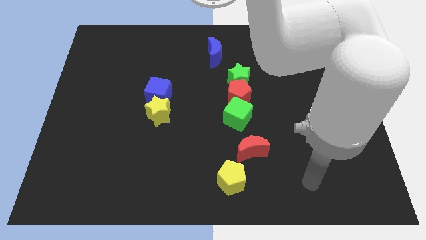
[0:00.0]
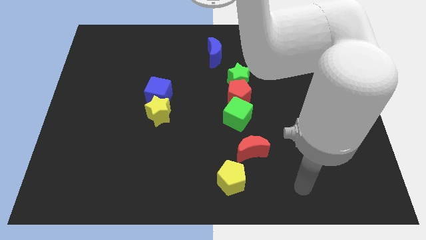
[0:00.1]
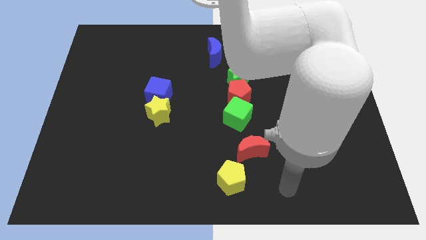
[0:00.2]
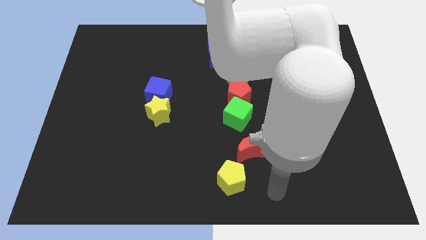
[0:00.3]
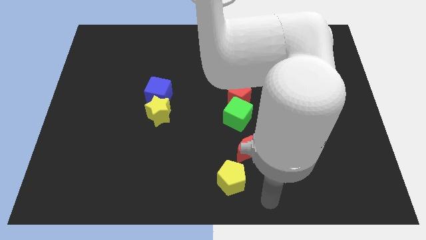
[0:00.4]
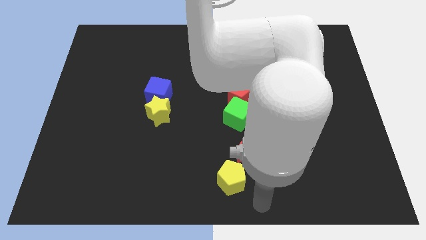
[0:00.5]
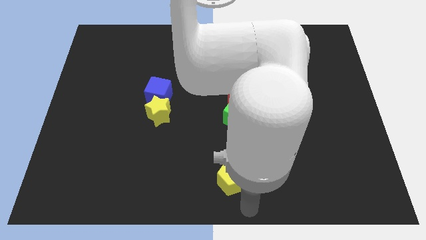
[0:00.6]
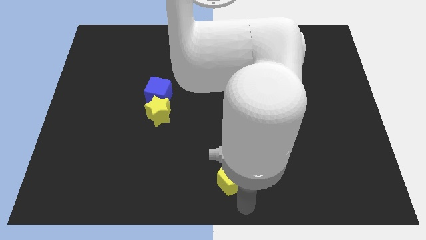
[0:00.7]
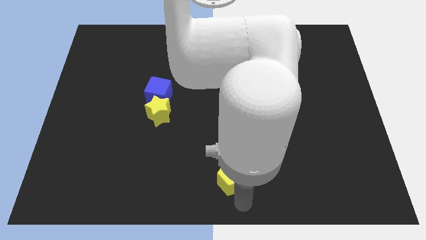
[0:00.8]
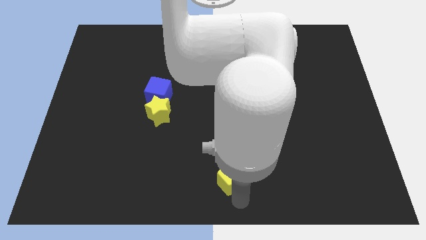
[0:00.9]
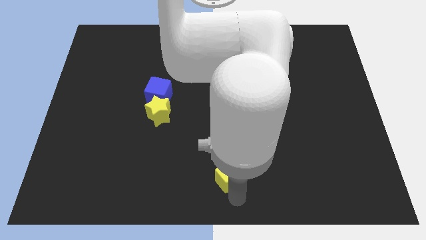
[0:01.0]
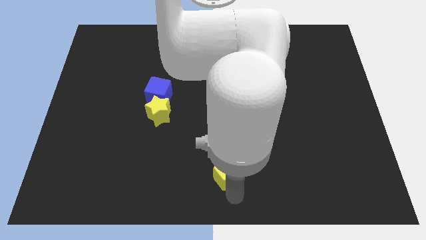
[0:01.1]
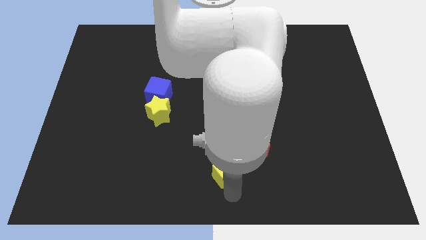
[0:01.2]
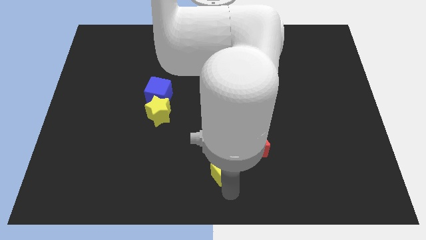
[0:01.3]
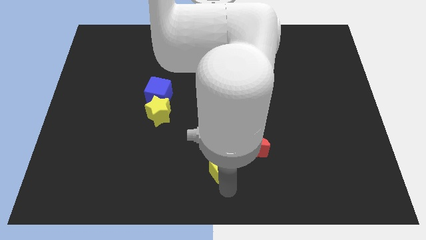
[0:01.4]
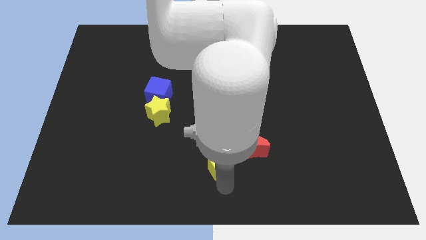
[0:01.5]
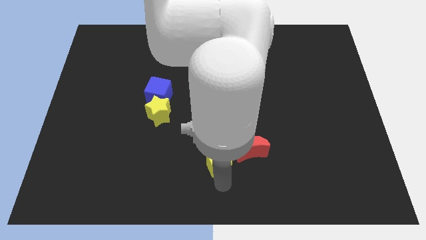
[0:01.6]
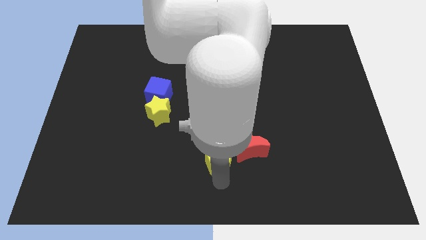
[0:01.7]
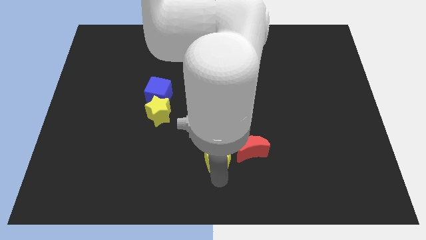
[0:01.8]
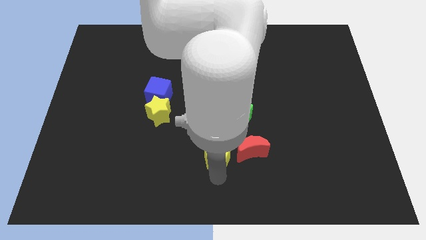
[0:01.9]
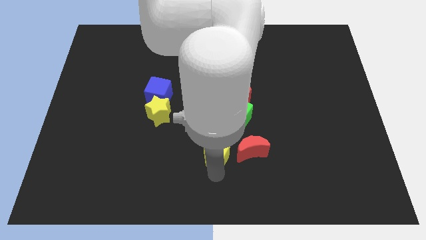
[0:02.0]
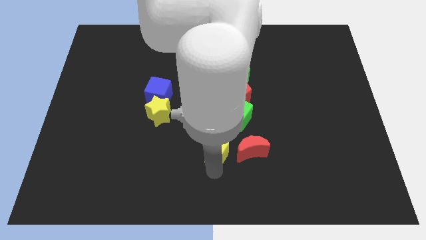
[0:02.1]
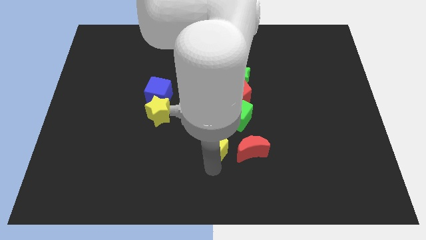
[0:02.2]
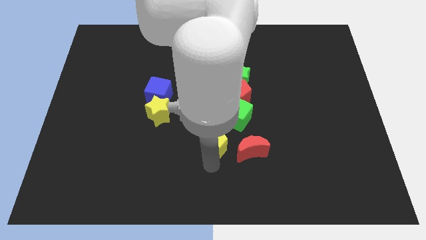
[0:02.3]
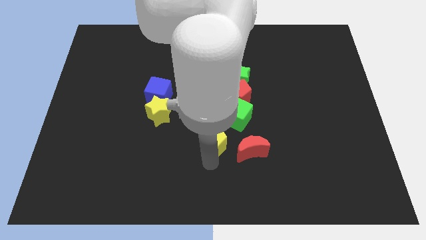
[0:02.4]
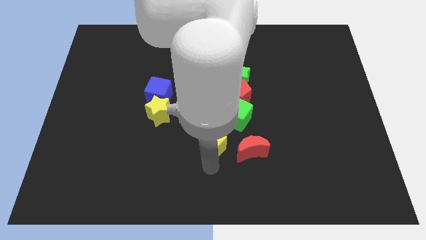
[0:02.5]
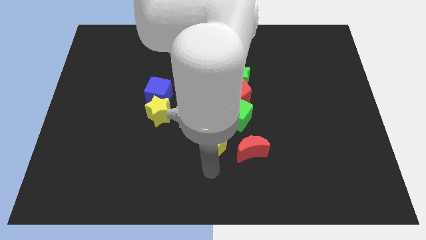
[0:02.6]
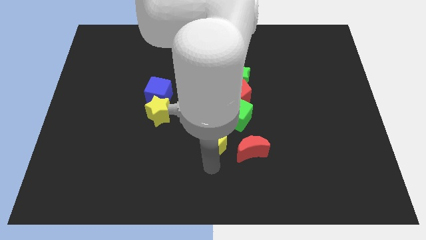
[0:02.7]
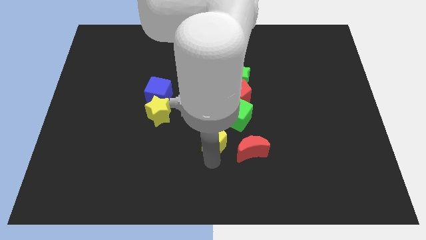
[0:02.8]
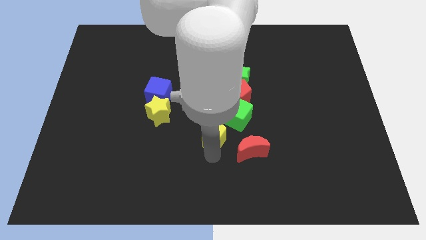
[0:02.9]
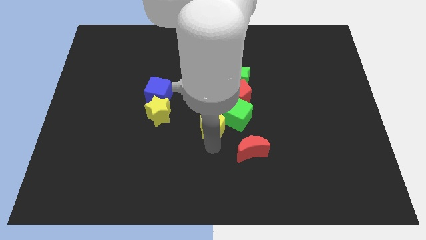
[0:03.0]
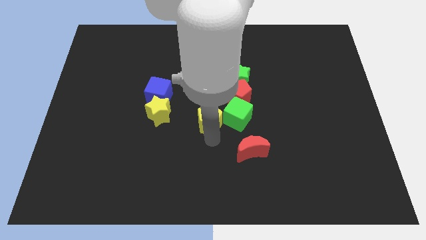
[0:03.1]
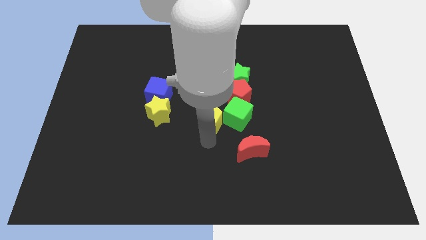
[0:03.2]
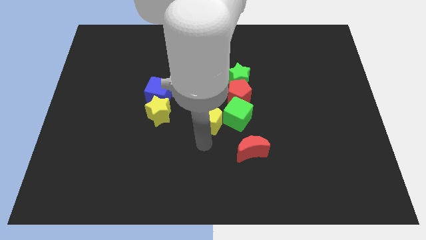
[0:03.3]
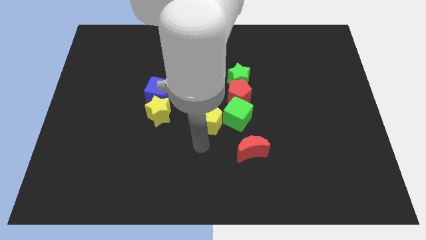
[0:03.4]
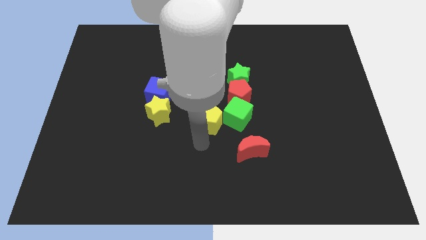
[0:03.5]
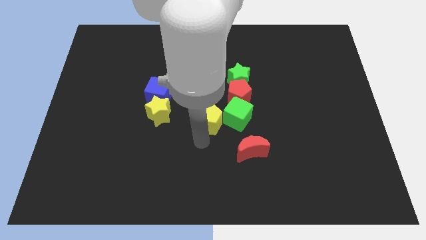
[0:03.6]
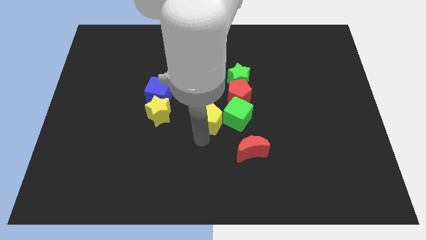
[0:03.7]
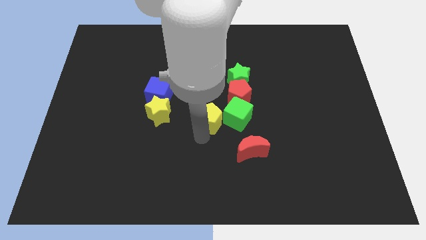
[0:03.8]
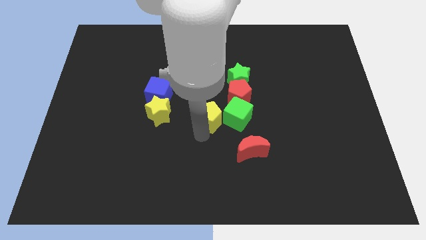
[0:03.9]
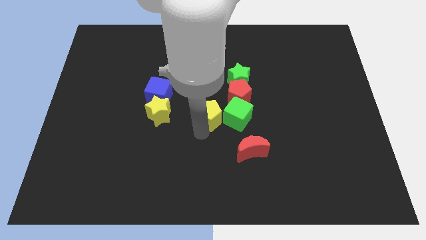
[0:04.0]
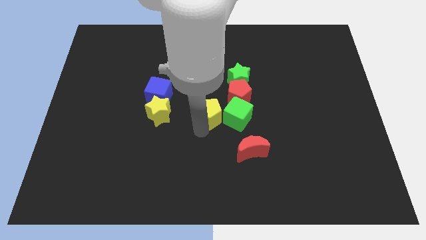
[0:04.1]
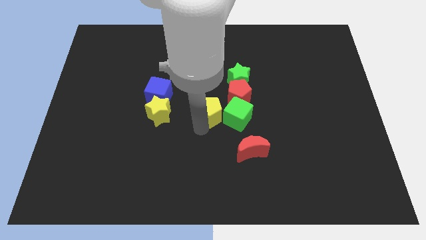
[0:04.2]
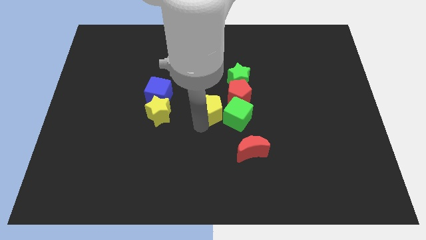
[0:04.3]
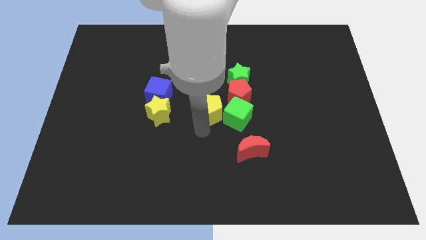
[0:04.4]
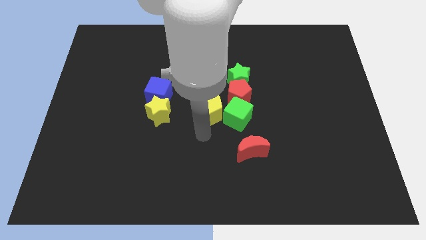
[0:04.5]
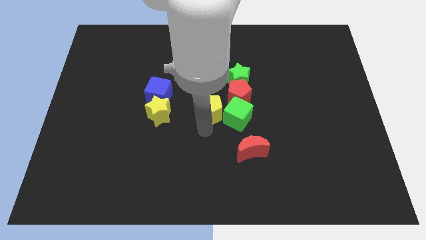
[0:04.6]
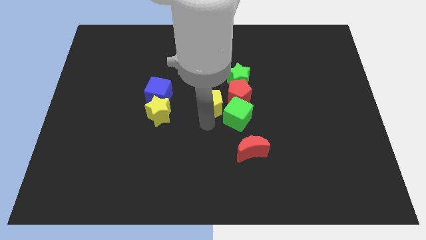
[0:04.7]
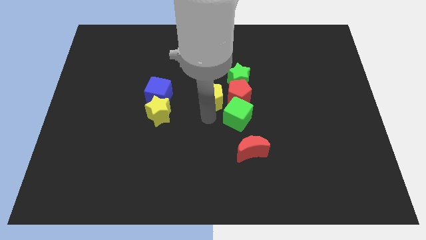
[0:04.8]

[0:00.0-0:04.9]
push the yellow pentagon up

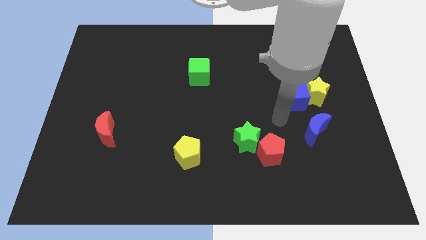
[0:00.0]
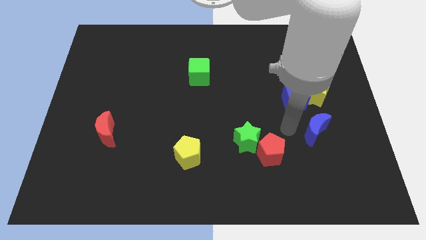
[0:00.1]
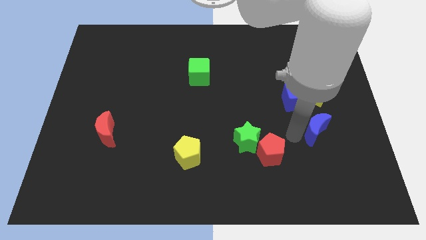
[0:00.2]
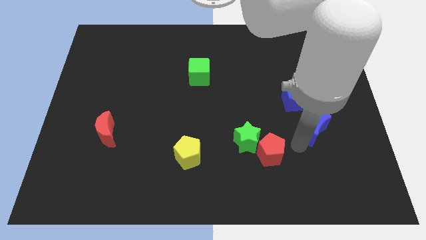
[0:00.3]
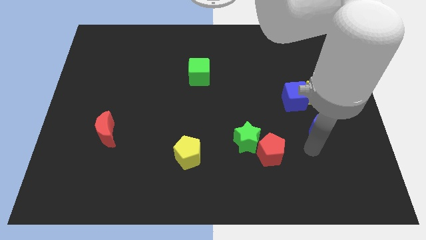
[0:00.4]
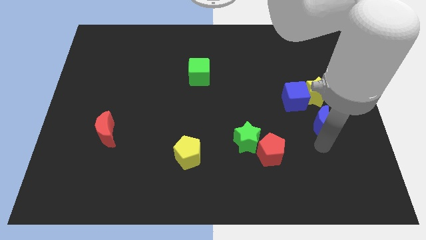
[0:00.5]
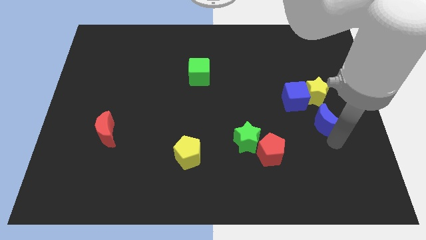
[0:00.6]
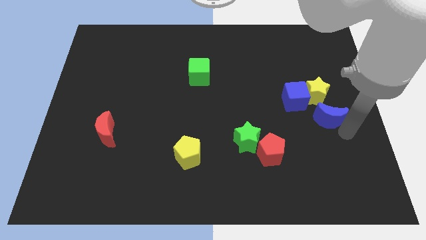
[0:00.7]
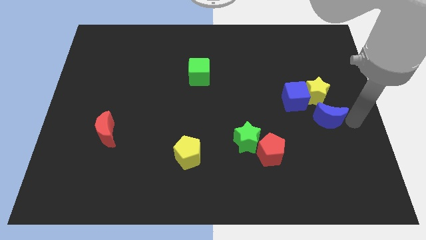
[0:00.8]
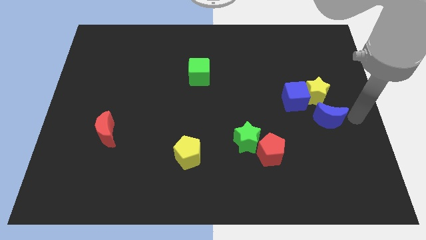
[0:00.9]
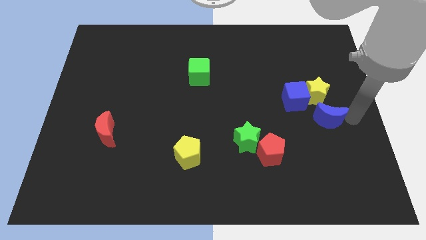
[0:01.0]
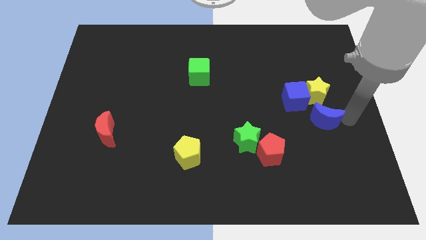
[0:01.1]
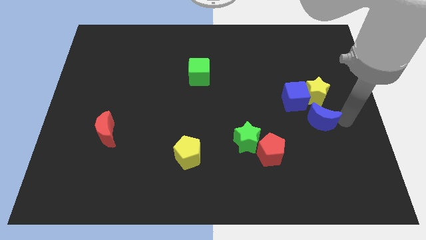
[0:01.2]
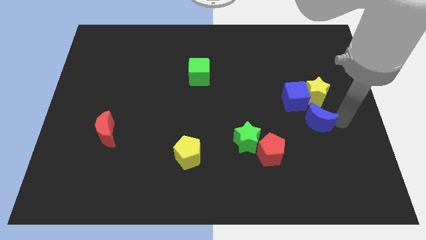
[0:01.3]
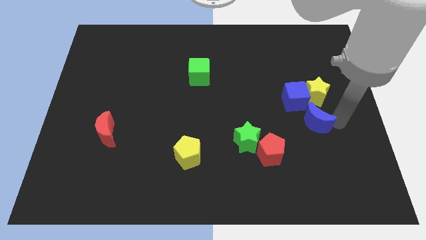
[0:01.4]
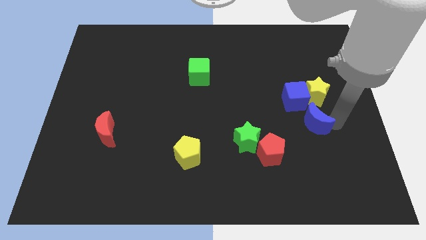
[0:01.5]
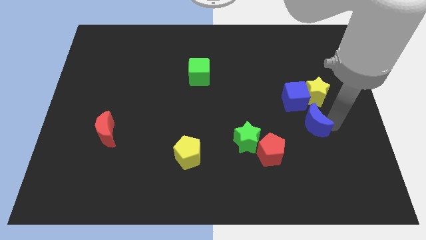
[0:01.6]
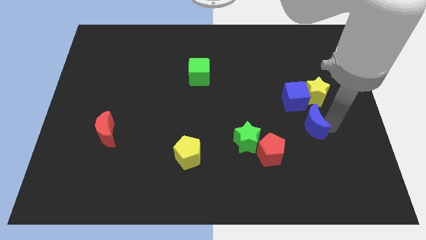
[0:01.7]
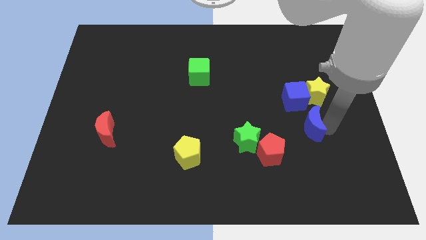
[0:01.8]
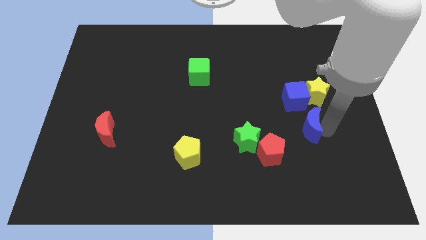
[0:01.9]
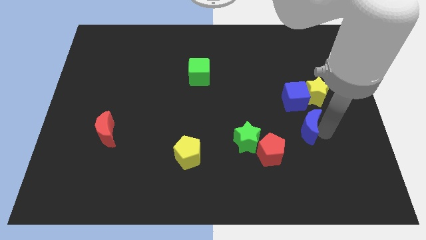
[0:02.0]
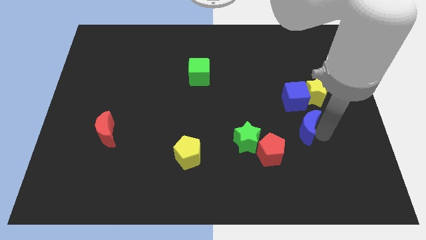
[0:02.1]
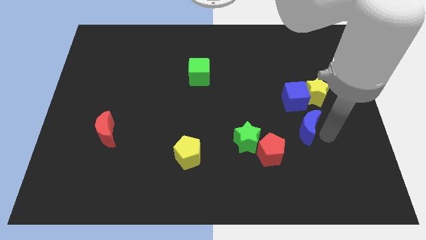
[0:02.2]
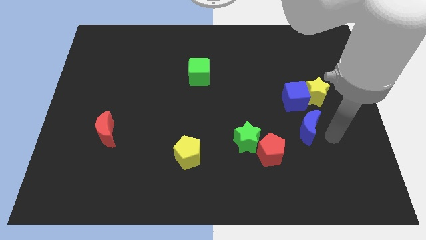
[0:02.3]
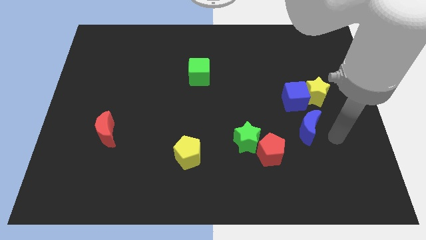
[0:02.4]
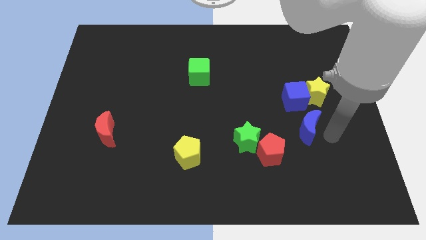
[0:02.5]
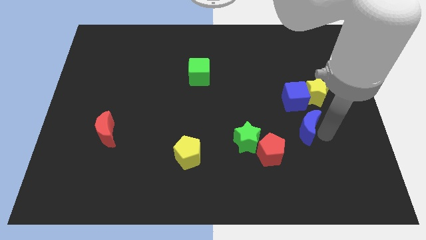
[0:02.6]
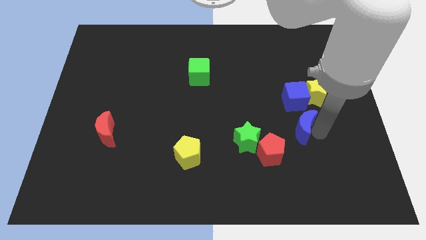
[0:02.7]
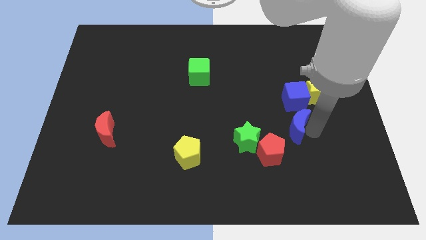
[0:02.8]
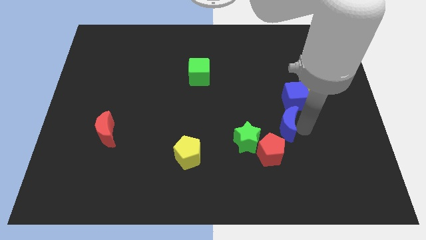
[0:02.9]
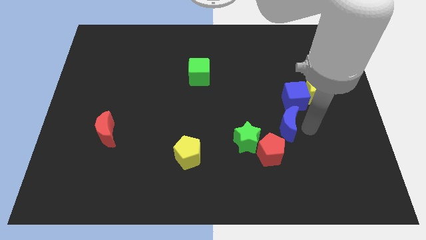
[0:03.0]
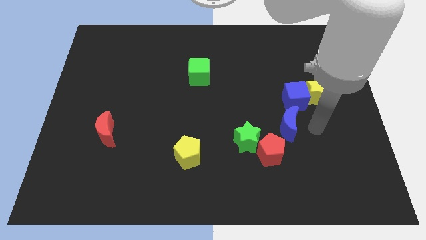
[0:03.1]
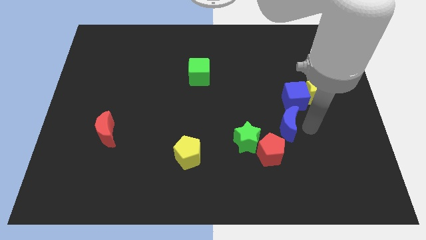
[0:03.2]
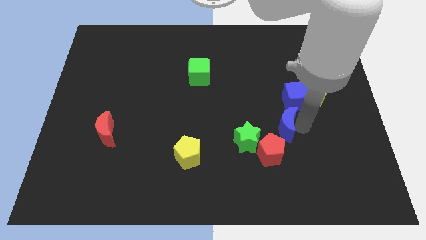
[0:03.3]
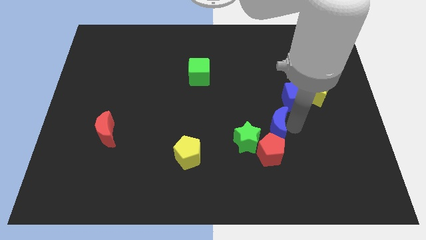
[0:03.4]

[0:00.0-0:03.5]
slide the blue moon to the left a little bit
